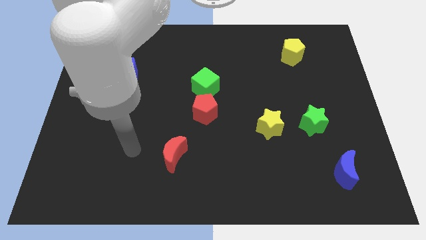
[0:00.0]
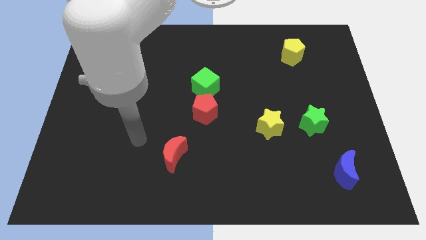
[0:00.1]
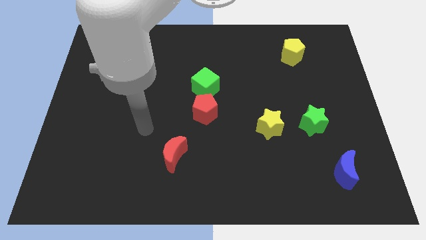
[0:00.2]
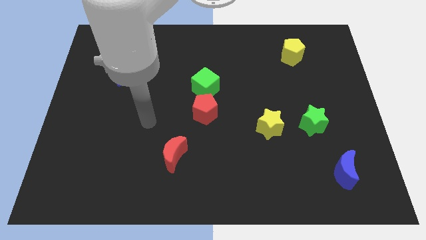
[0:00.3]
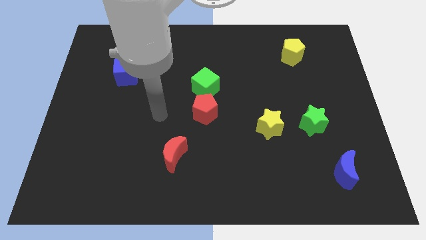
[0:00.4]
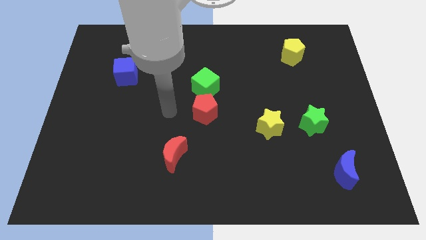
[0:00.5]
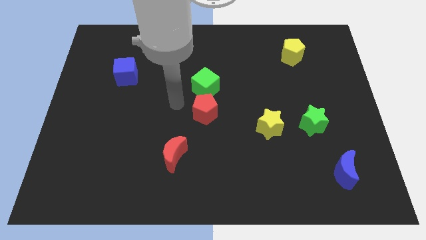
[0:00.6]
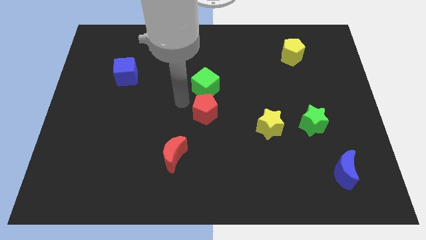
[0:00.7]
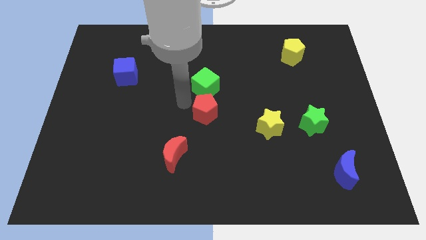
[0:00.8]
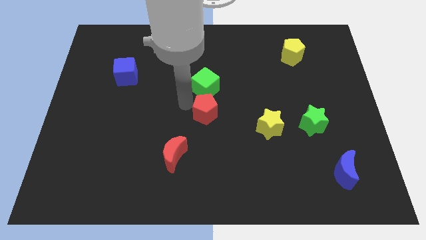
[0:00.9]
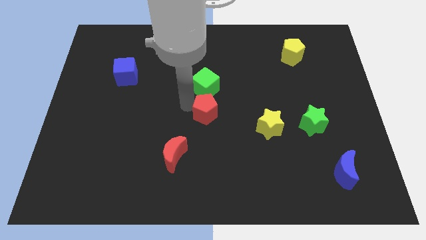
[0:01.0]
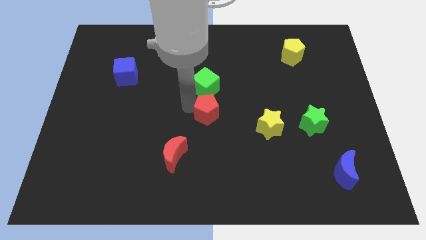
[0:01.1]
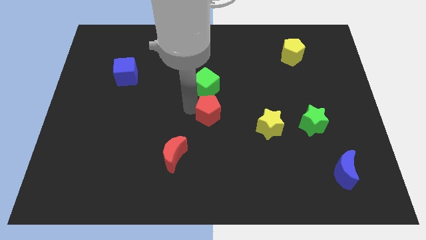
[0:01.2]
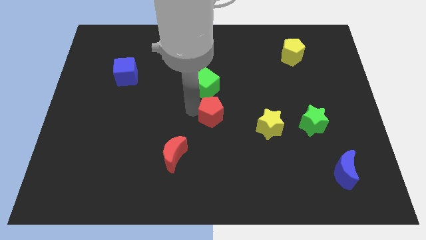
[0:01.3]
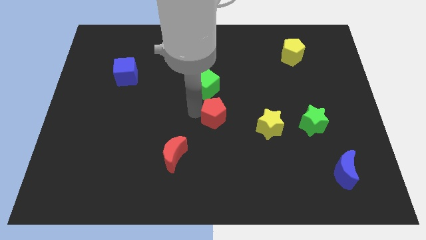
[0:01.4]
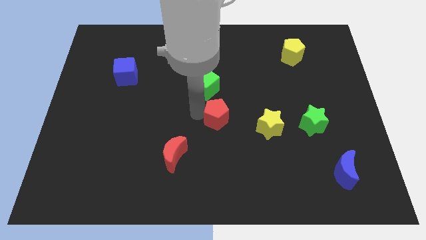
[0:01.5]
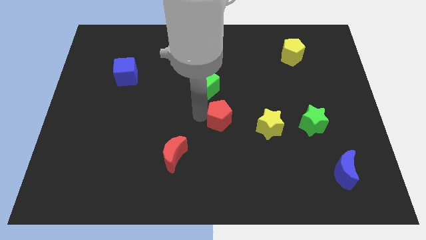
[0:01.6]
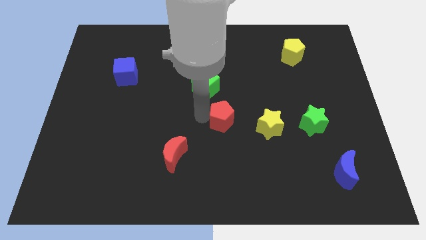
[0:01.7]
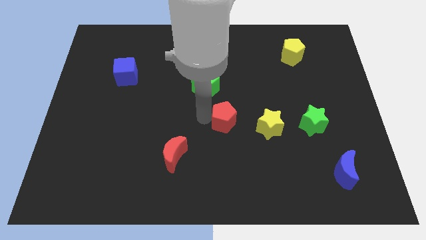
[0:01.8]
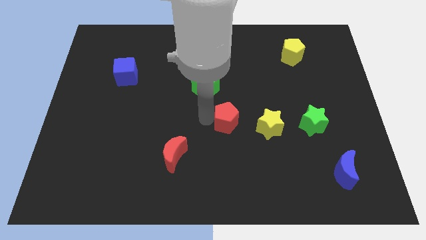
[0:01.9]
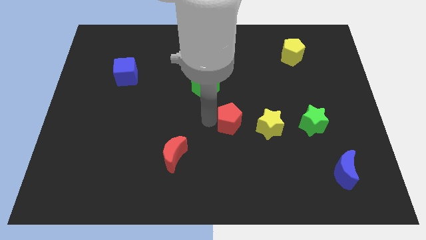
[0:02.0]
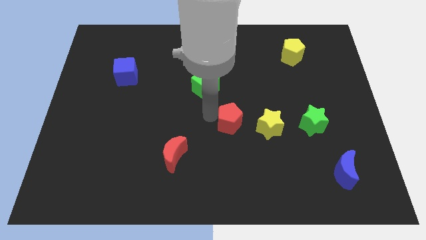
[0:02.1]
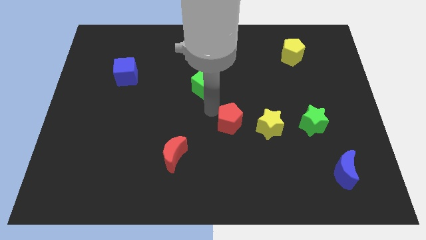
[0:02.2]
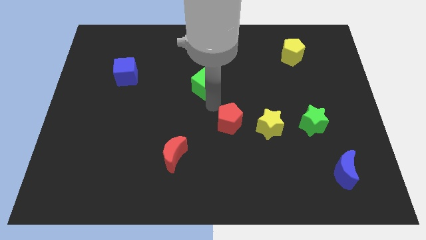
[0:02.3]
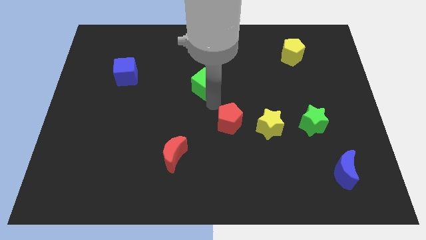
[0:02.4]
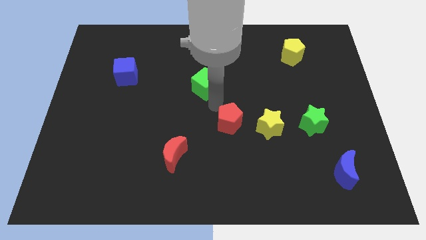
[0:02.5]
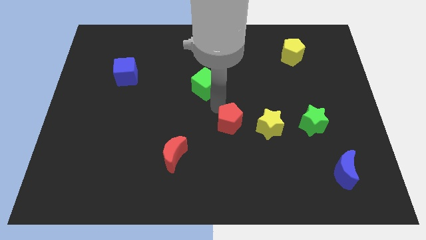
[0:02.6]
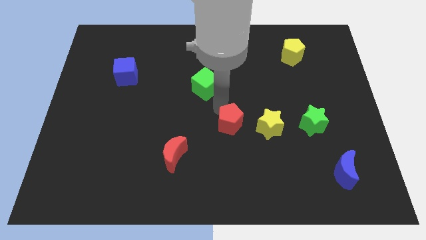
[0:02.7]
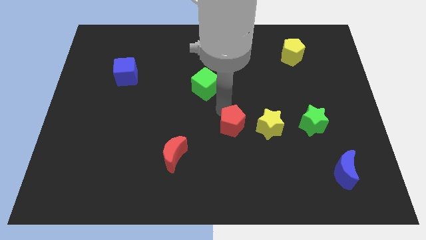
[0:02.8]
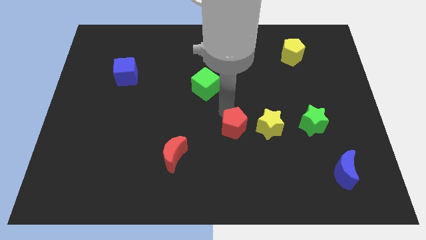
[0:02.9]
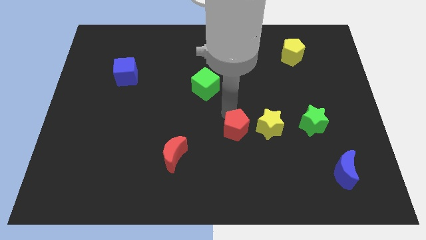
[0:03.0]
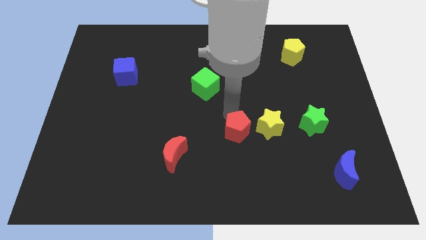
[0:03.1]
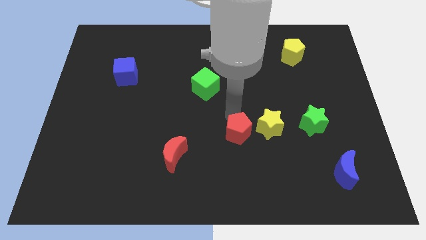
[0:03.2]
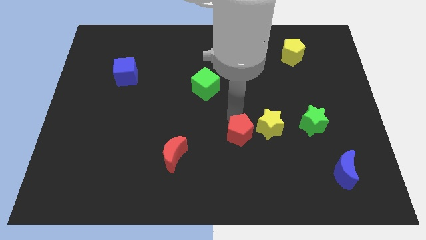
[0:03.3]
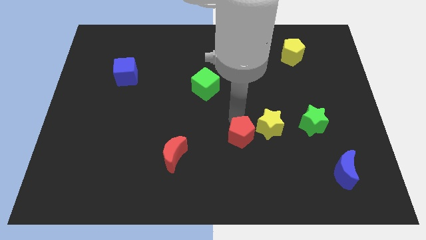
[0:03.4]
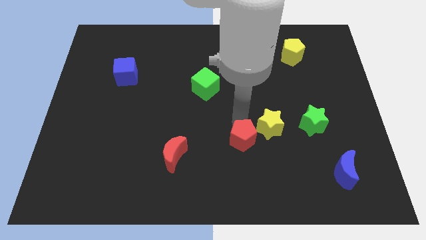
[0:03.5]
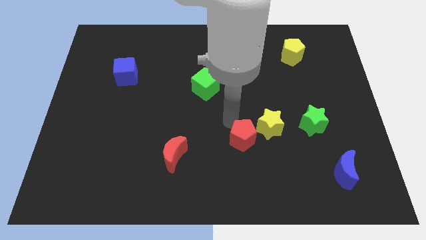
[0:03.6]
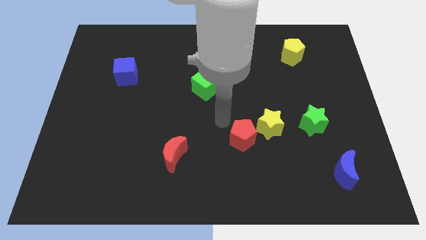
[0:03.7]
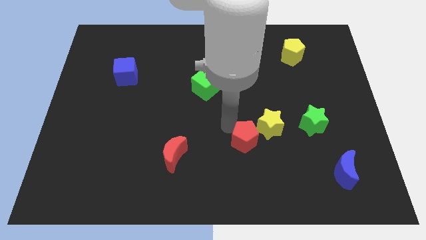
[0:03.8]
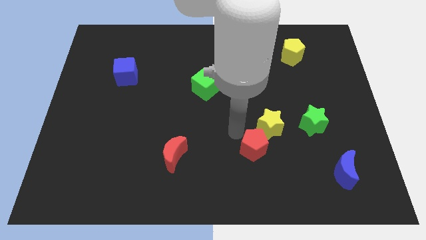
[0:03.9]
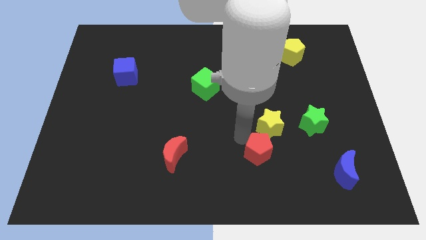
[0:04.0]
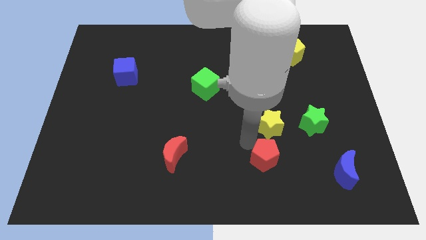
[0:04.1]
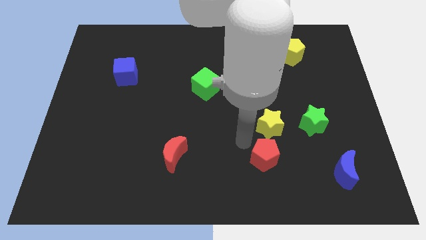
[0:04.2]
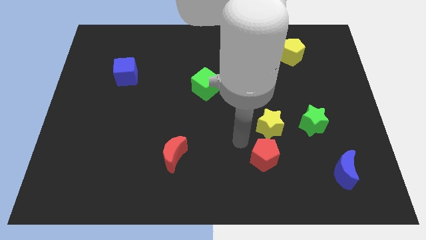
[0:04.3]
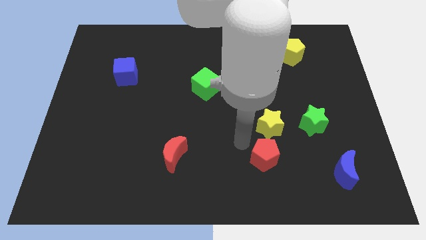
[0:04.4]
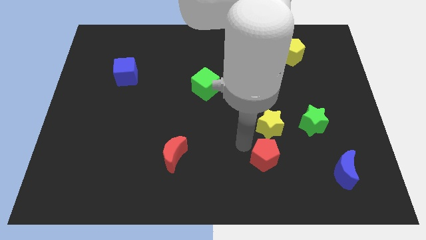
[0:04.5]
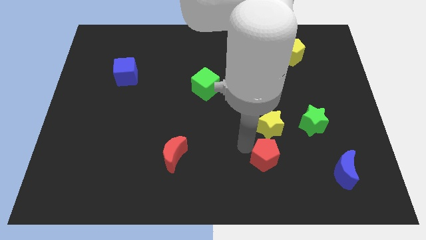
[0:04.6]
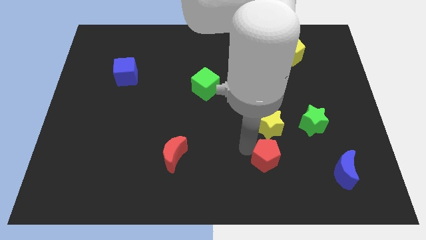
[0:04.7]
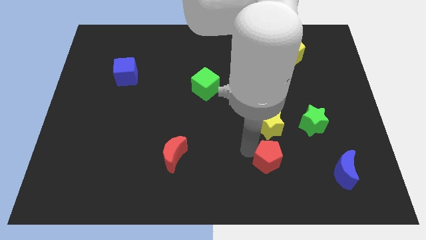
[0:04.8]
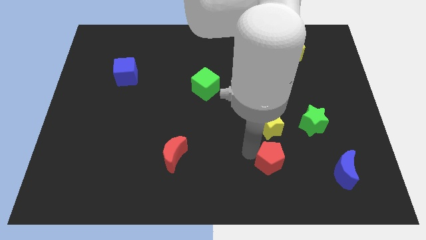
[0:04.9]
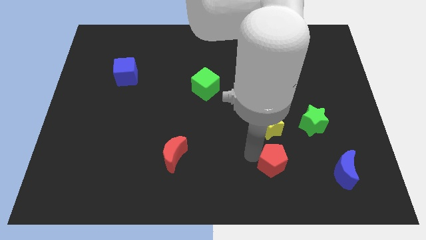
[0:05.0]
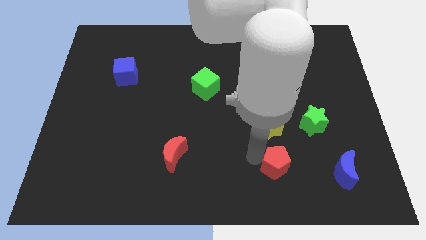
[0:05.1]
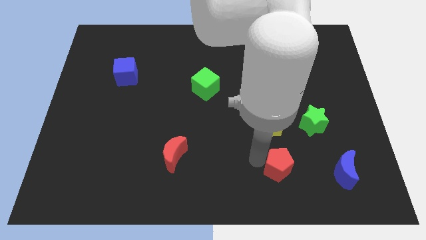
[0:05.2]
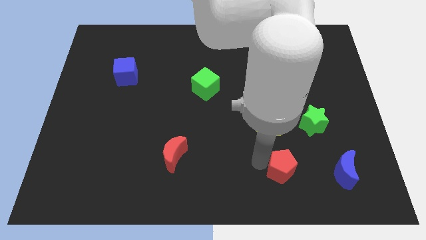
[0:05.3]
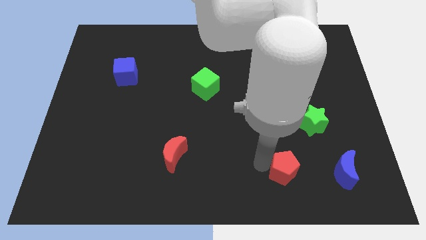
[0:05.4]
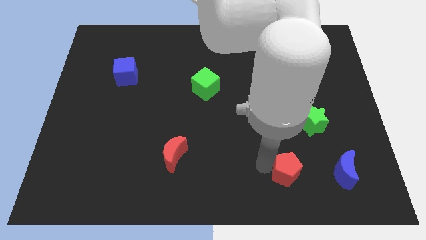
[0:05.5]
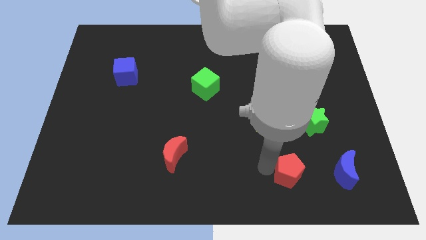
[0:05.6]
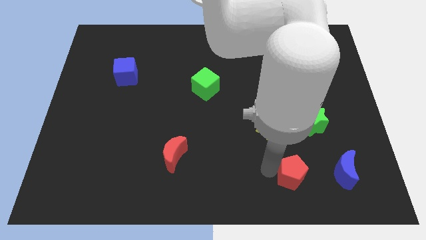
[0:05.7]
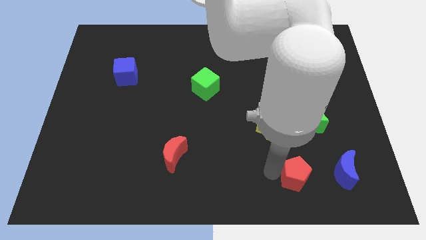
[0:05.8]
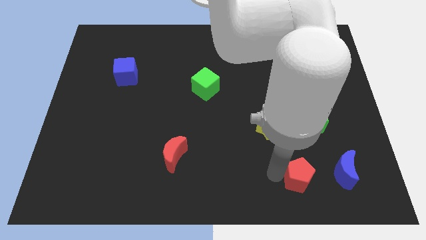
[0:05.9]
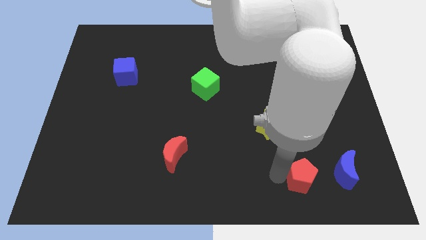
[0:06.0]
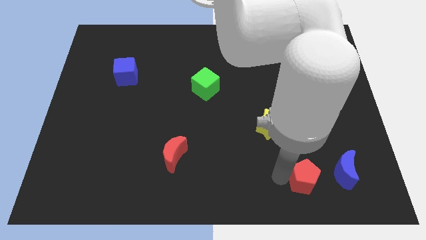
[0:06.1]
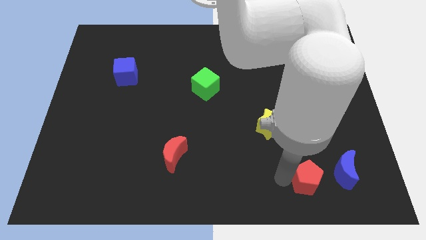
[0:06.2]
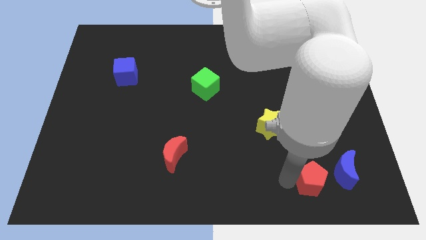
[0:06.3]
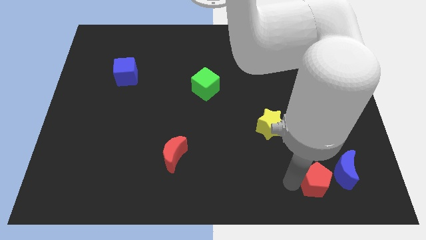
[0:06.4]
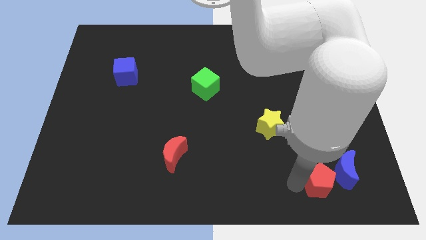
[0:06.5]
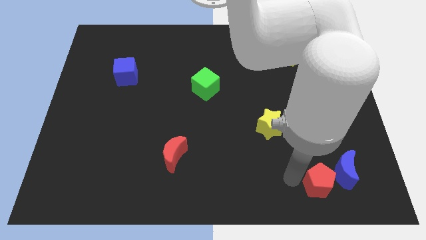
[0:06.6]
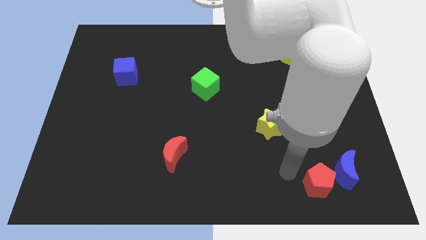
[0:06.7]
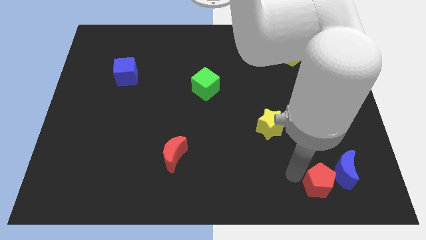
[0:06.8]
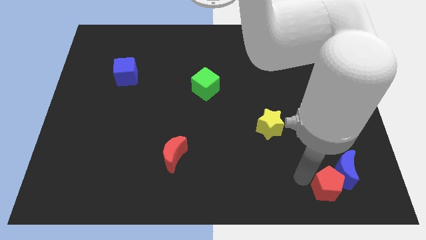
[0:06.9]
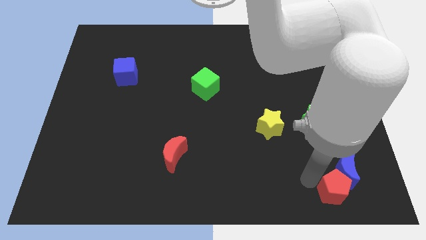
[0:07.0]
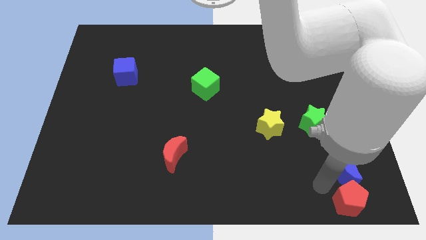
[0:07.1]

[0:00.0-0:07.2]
move the red pentagon to the bottom right of the board
